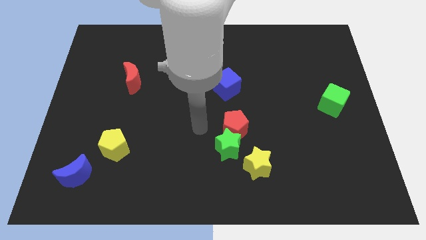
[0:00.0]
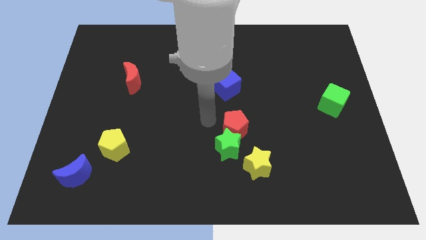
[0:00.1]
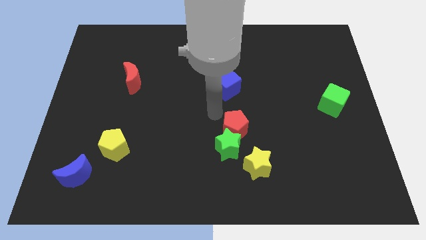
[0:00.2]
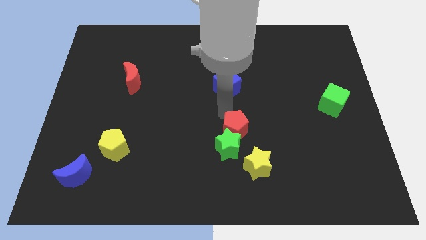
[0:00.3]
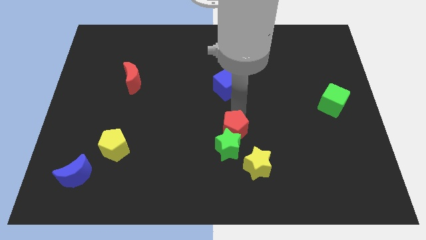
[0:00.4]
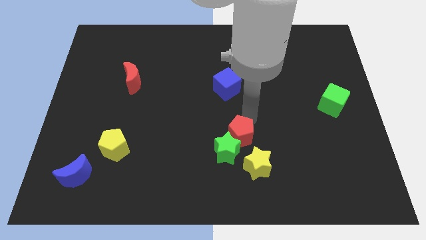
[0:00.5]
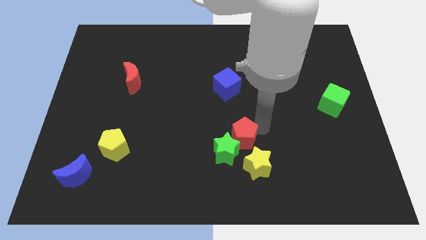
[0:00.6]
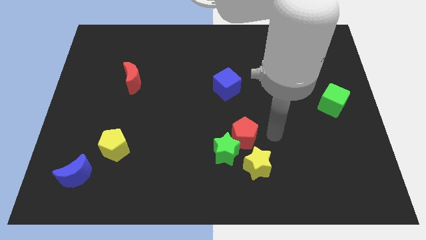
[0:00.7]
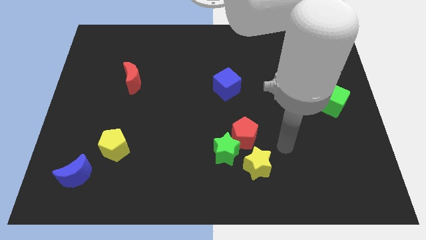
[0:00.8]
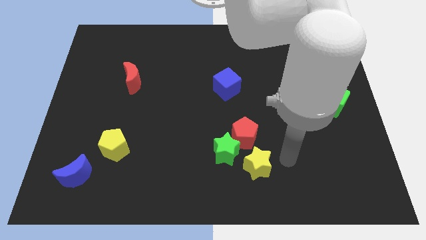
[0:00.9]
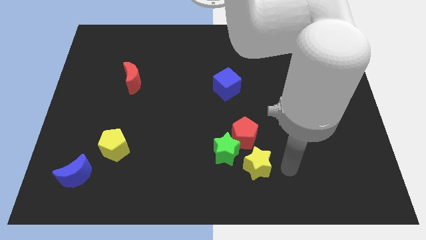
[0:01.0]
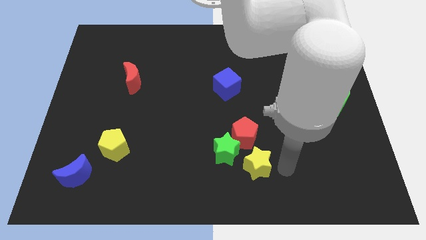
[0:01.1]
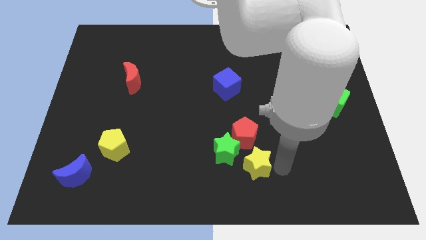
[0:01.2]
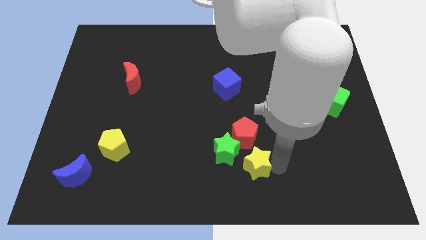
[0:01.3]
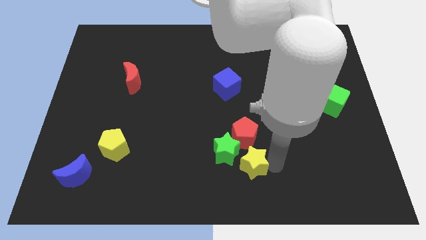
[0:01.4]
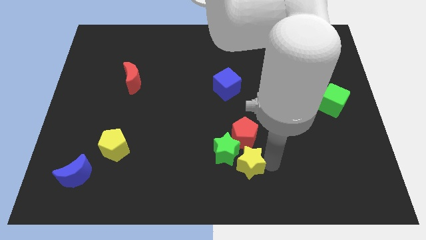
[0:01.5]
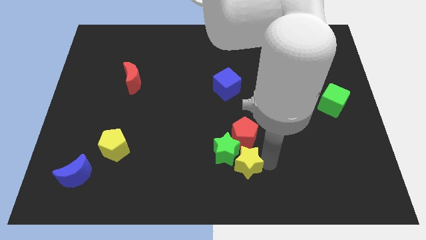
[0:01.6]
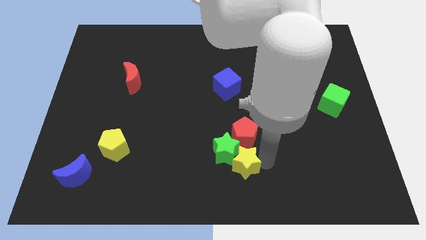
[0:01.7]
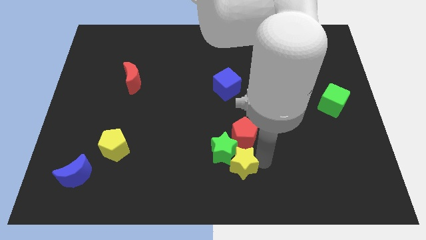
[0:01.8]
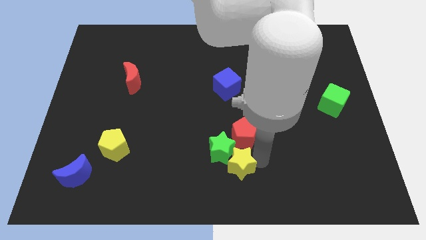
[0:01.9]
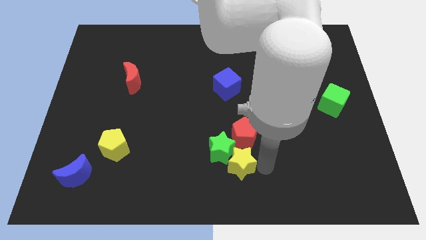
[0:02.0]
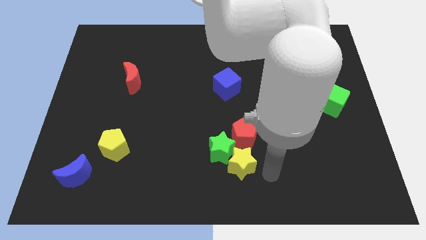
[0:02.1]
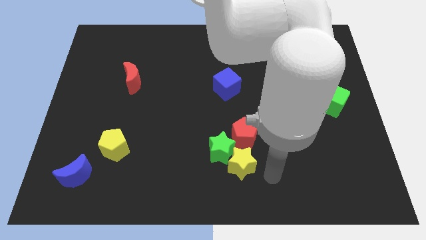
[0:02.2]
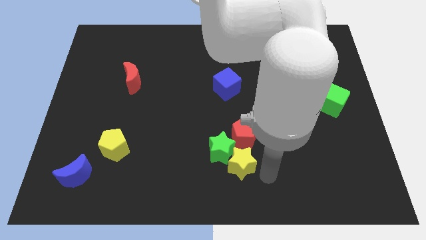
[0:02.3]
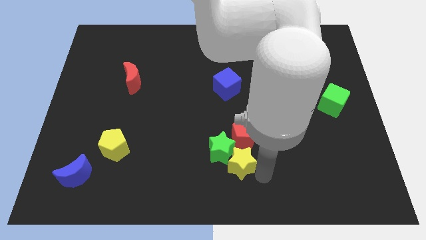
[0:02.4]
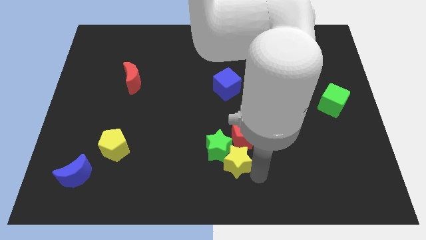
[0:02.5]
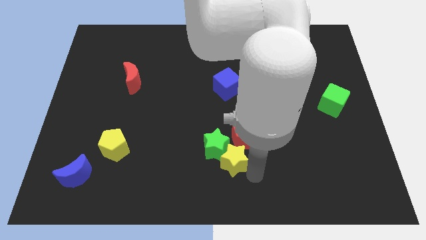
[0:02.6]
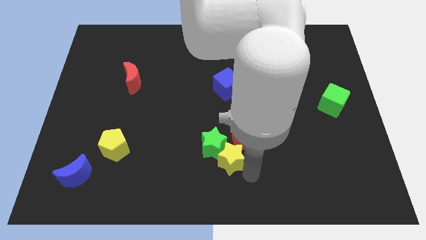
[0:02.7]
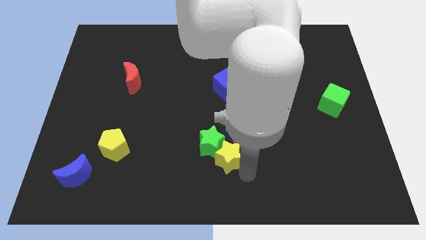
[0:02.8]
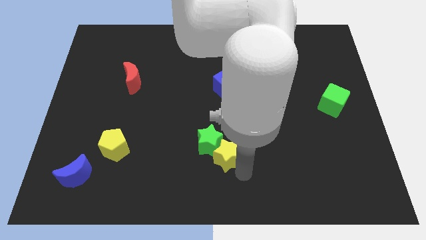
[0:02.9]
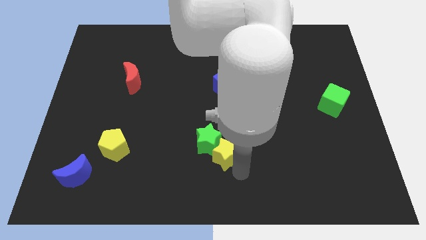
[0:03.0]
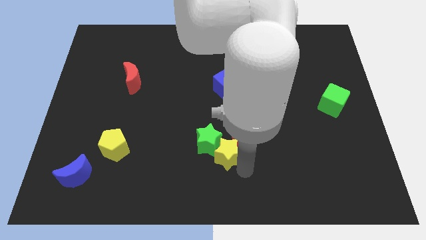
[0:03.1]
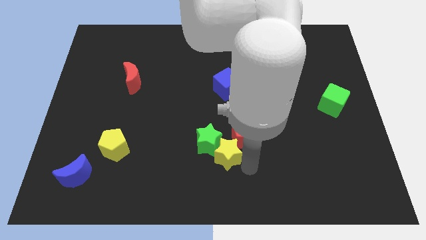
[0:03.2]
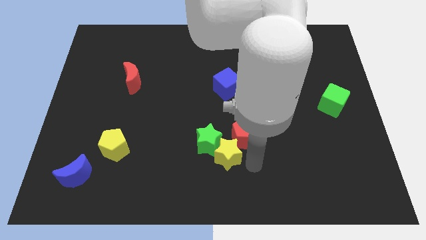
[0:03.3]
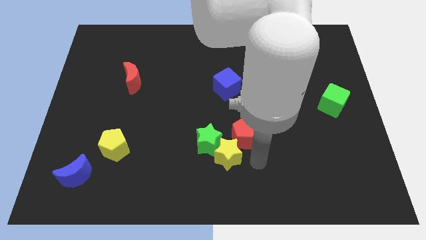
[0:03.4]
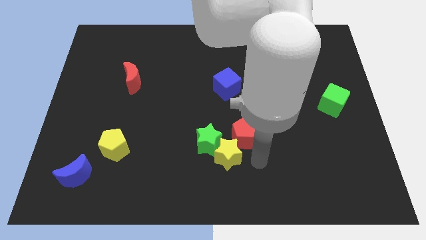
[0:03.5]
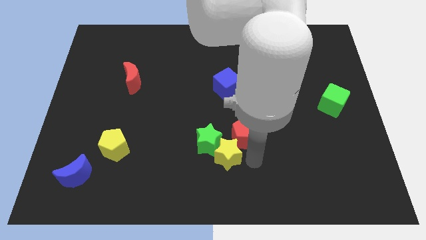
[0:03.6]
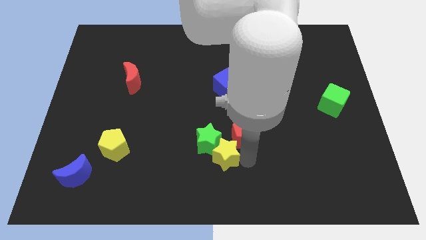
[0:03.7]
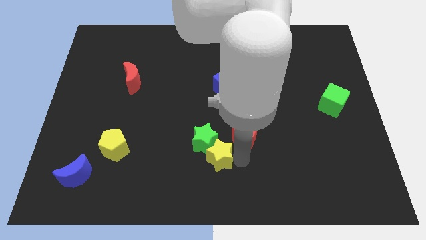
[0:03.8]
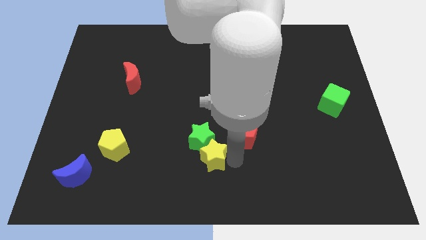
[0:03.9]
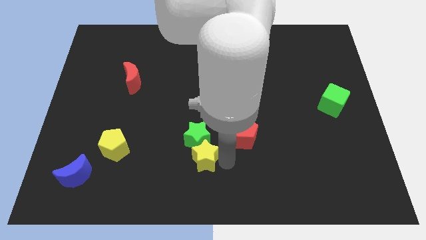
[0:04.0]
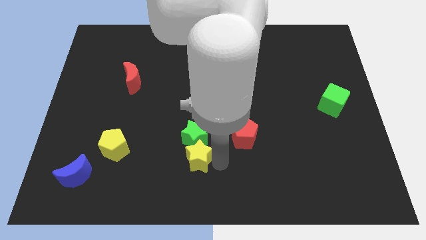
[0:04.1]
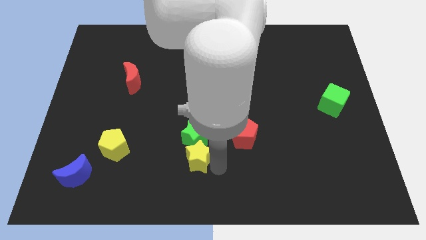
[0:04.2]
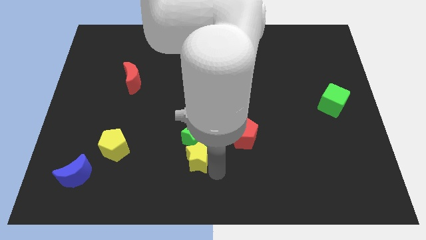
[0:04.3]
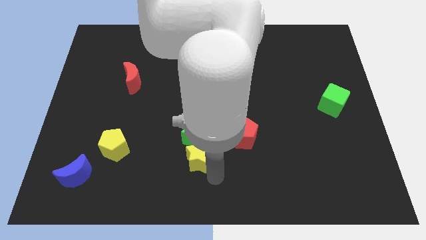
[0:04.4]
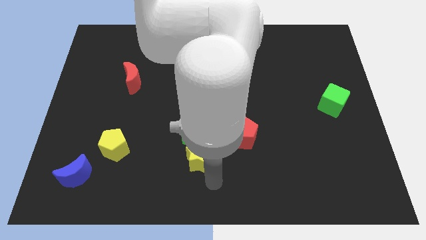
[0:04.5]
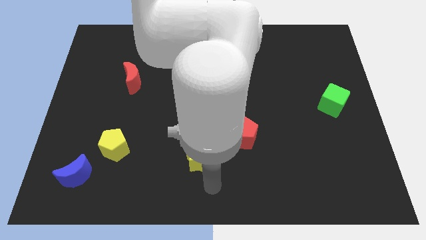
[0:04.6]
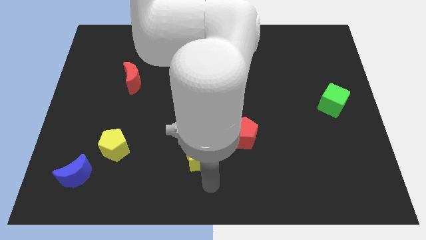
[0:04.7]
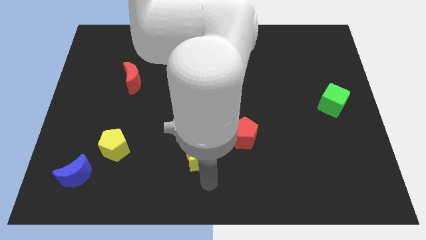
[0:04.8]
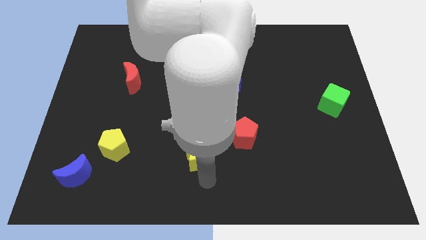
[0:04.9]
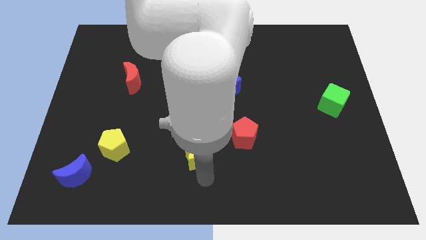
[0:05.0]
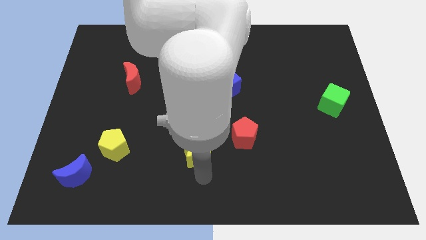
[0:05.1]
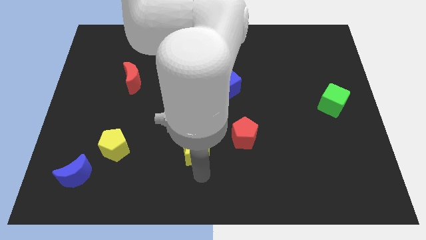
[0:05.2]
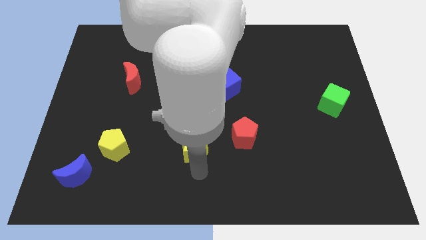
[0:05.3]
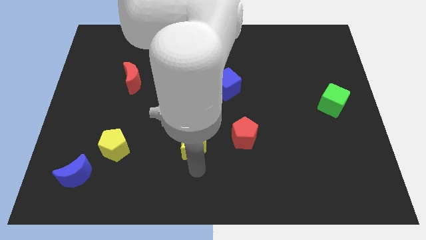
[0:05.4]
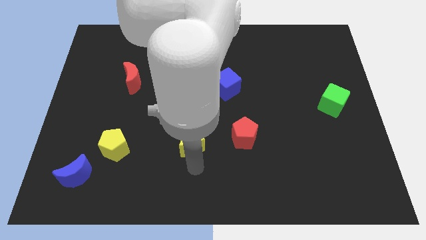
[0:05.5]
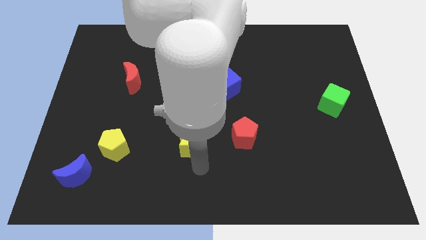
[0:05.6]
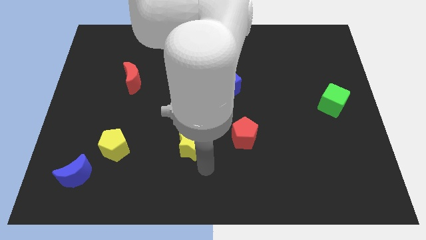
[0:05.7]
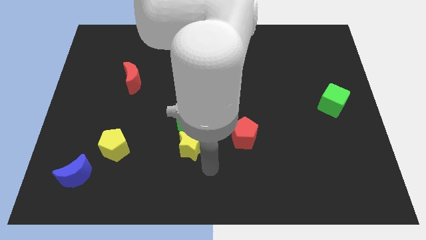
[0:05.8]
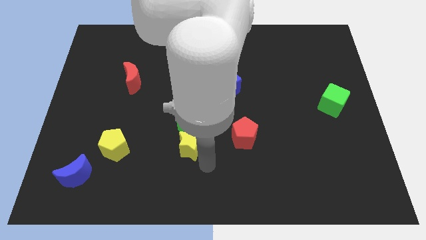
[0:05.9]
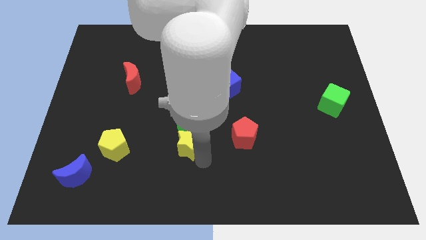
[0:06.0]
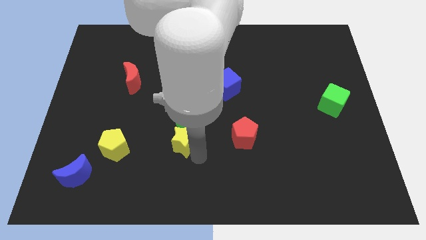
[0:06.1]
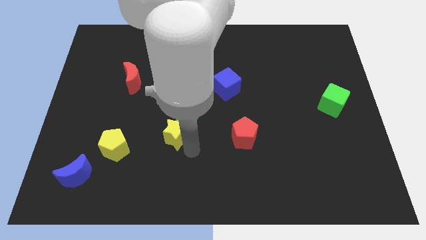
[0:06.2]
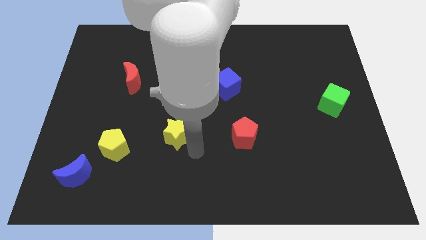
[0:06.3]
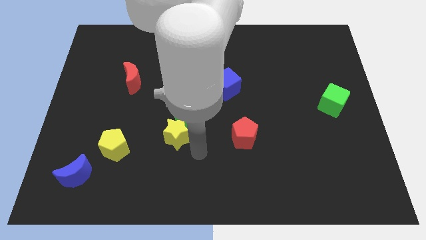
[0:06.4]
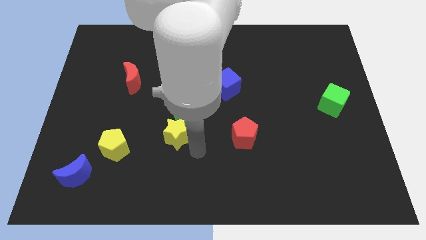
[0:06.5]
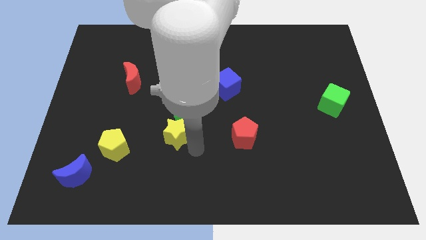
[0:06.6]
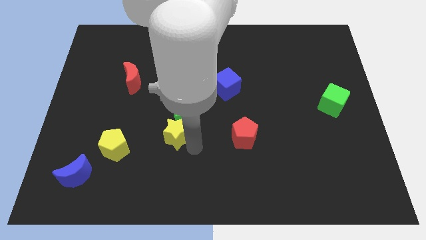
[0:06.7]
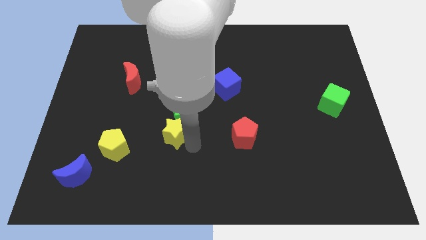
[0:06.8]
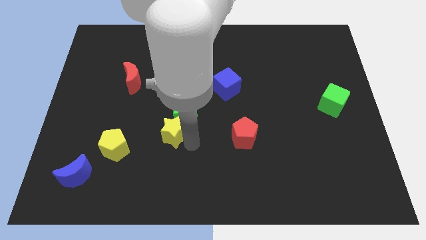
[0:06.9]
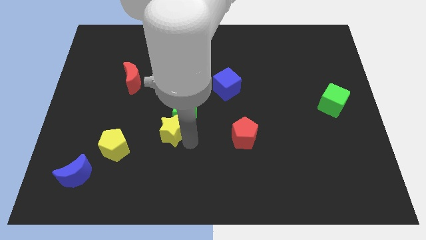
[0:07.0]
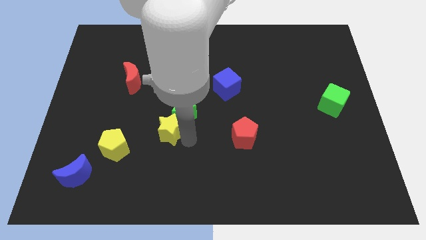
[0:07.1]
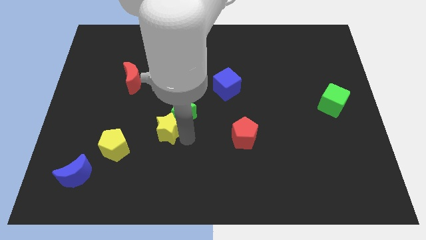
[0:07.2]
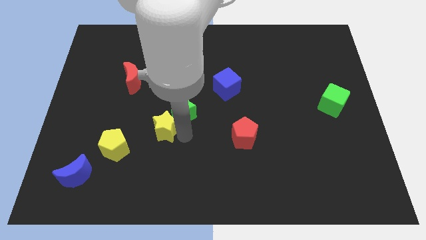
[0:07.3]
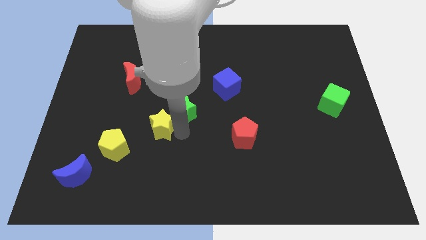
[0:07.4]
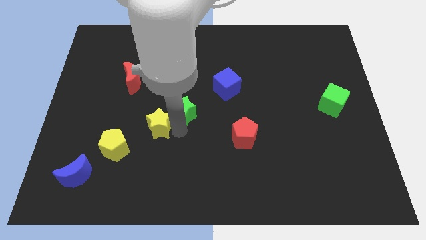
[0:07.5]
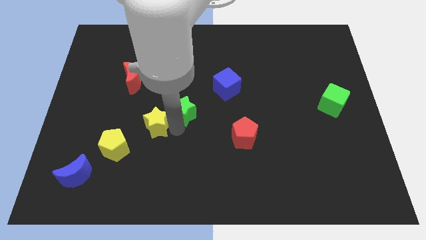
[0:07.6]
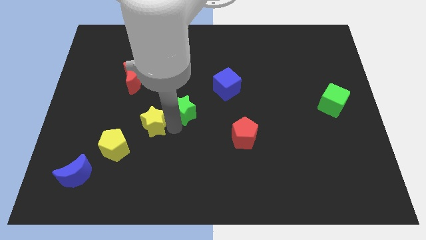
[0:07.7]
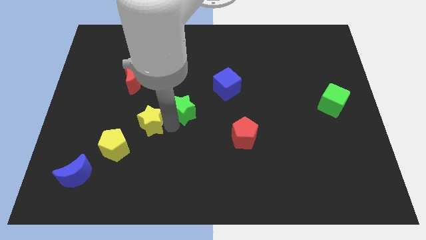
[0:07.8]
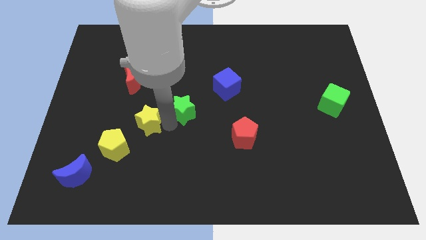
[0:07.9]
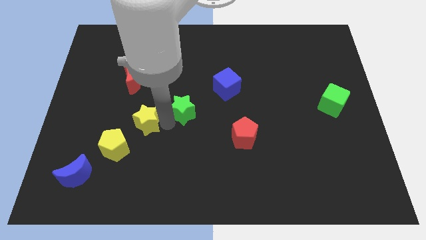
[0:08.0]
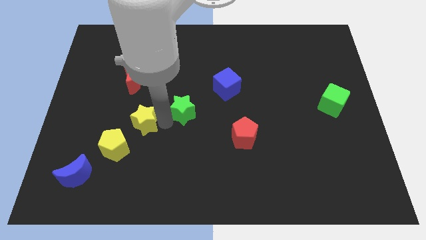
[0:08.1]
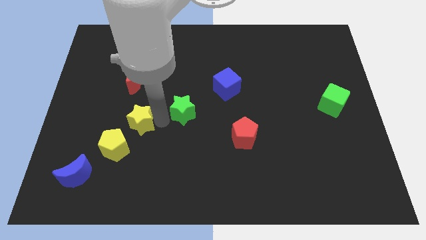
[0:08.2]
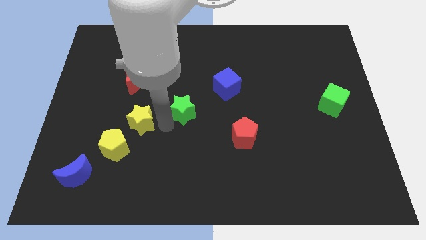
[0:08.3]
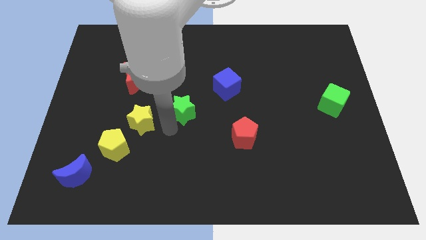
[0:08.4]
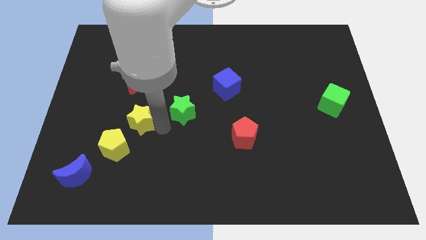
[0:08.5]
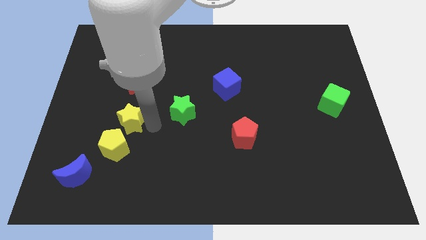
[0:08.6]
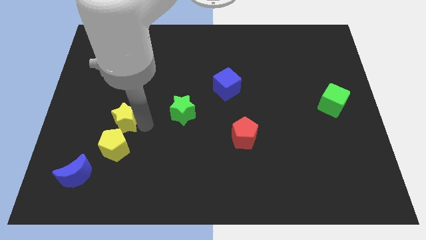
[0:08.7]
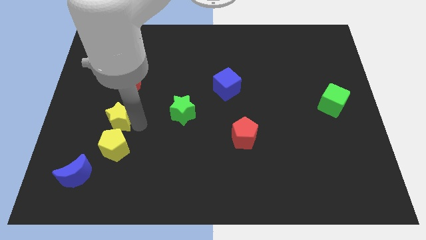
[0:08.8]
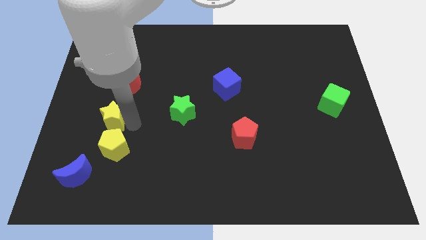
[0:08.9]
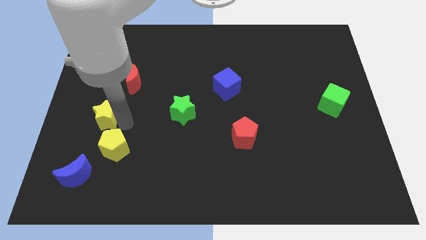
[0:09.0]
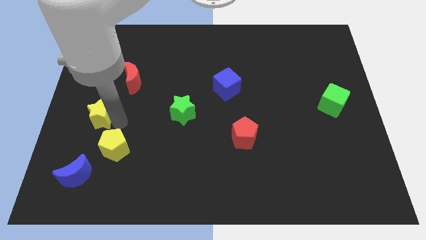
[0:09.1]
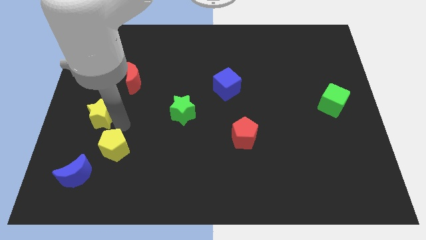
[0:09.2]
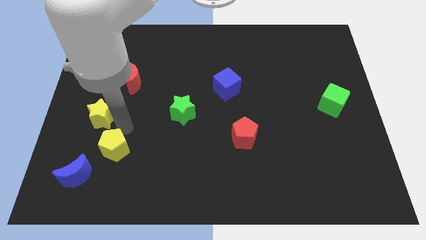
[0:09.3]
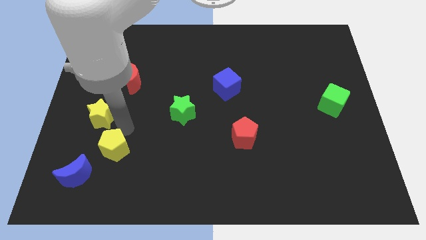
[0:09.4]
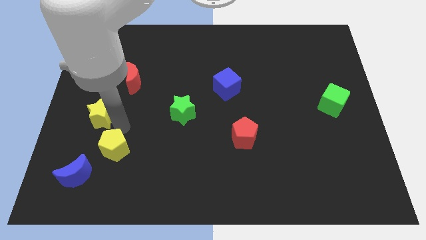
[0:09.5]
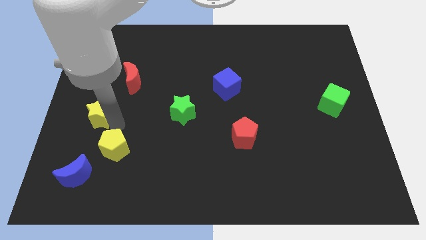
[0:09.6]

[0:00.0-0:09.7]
push the yellow star to the left side of the board
